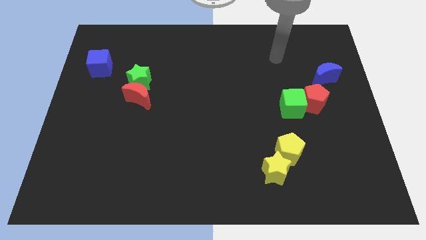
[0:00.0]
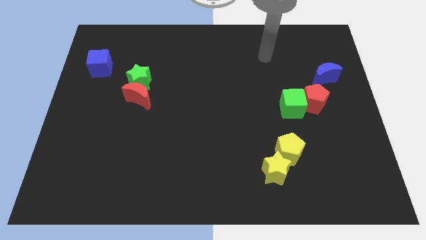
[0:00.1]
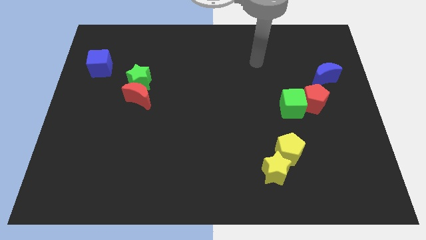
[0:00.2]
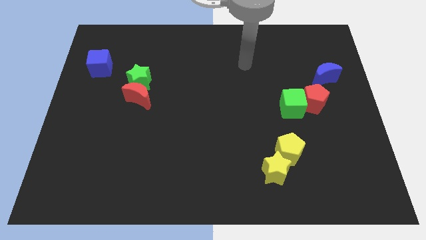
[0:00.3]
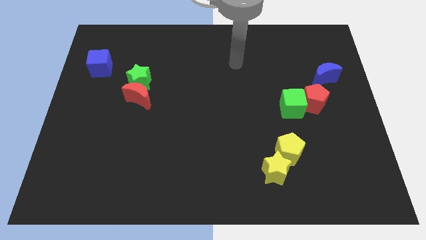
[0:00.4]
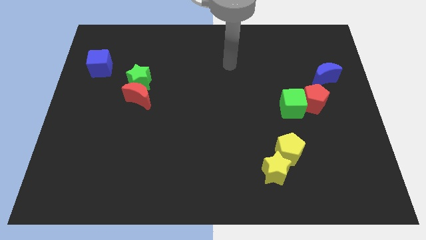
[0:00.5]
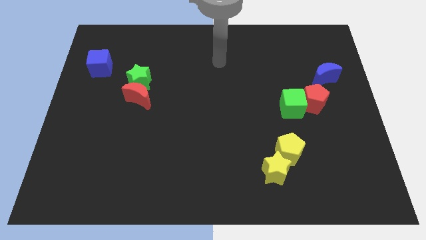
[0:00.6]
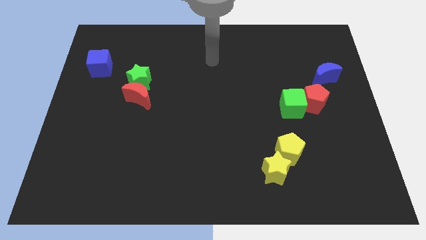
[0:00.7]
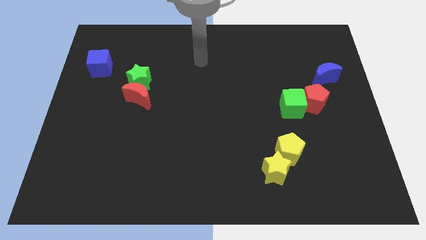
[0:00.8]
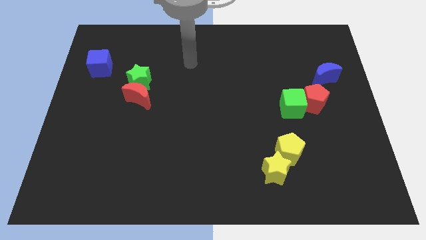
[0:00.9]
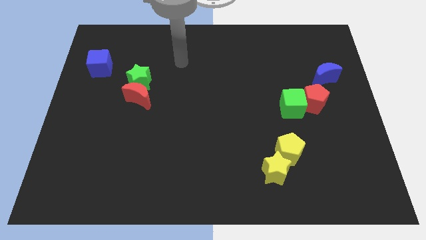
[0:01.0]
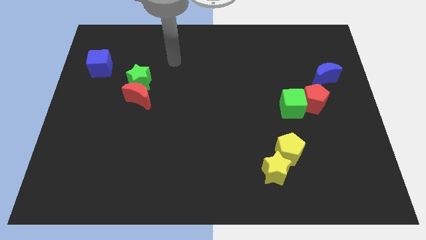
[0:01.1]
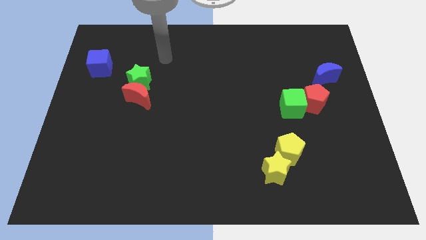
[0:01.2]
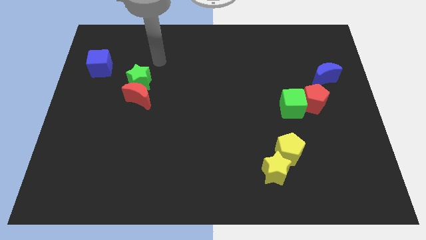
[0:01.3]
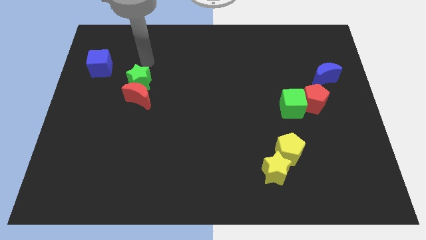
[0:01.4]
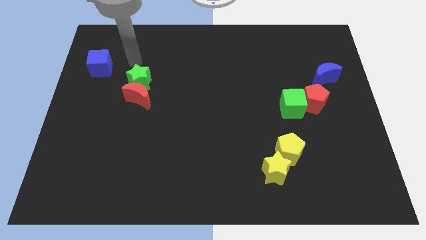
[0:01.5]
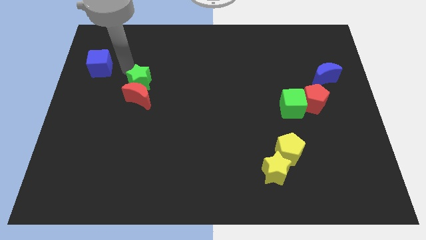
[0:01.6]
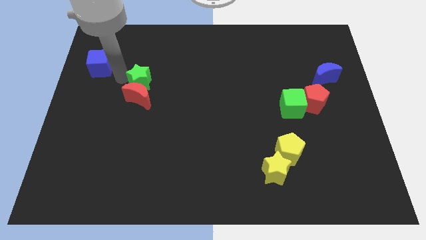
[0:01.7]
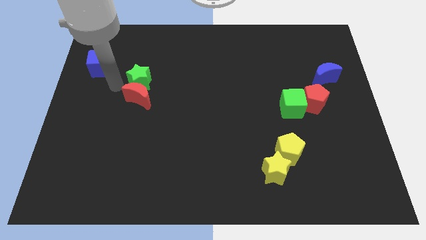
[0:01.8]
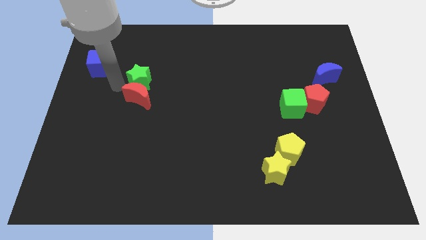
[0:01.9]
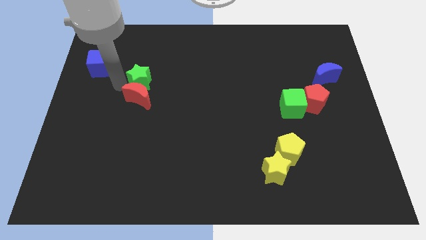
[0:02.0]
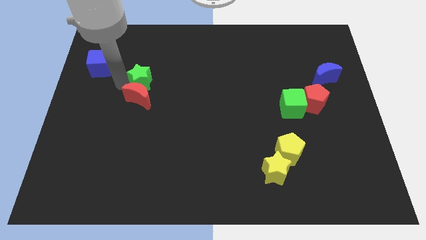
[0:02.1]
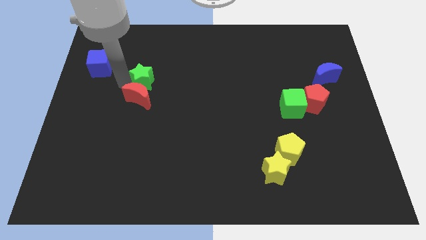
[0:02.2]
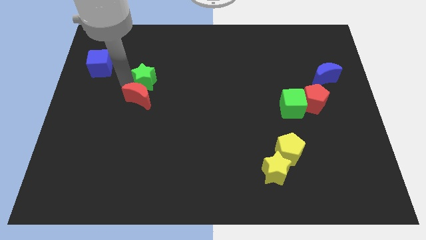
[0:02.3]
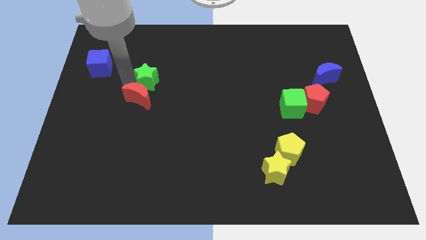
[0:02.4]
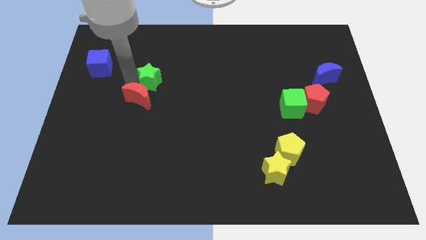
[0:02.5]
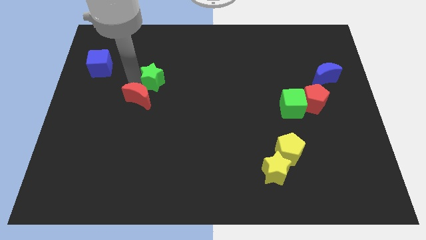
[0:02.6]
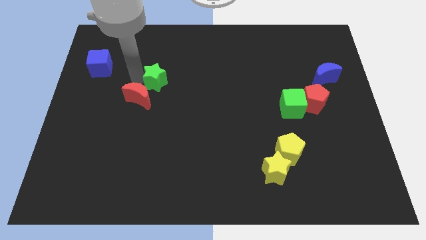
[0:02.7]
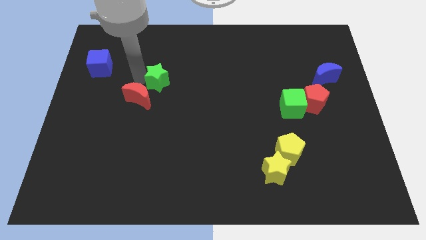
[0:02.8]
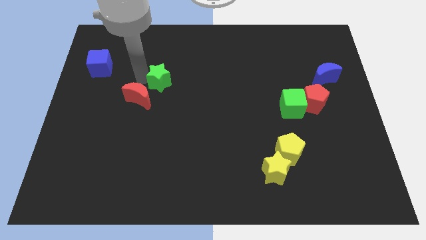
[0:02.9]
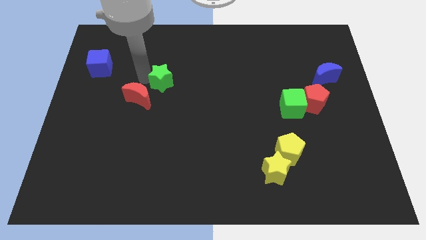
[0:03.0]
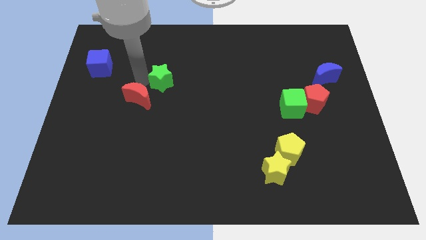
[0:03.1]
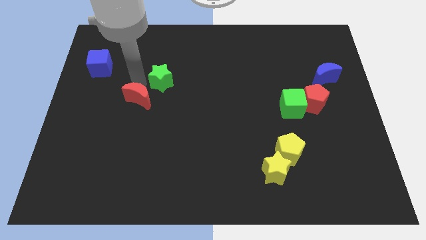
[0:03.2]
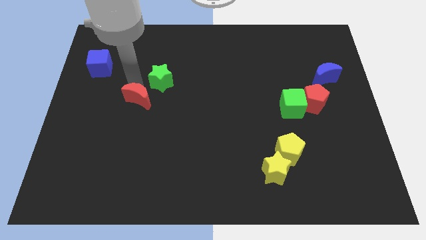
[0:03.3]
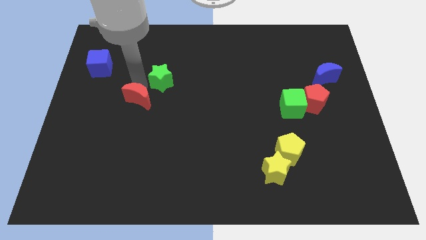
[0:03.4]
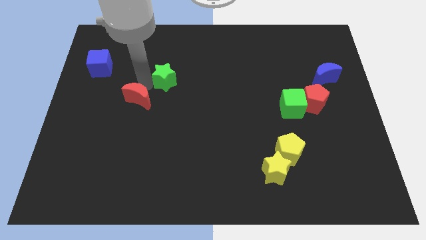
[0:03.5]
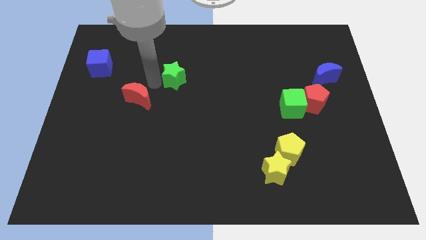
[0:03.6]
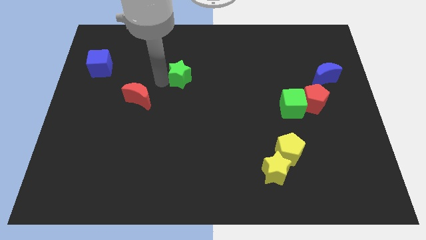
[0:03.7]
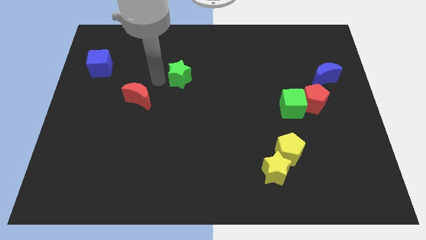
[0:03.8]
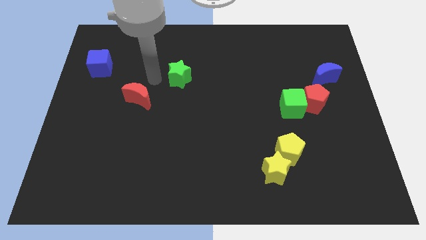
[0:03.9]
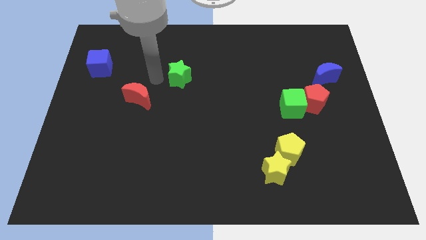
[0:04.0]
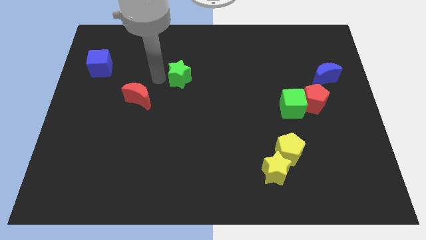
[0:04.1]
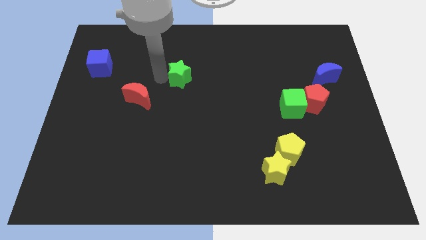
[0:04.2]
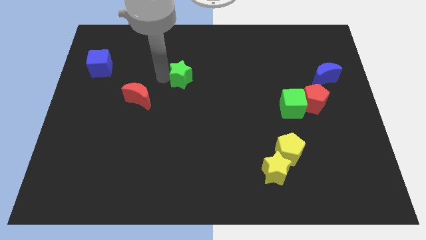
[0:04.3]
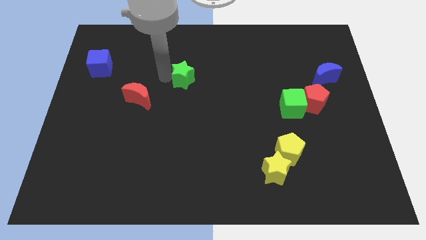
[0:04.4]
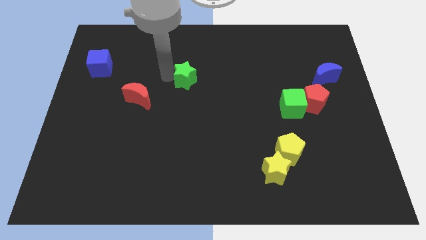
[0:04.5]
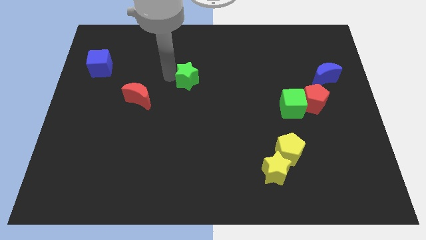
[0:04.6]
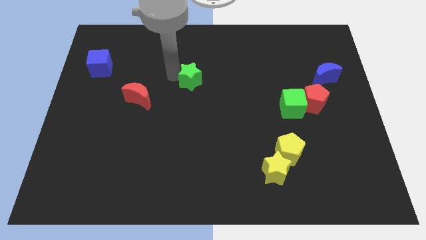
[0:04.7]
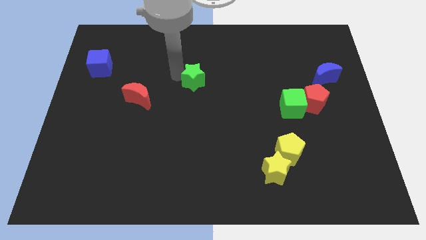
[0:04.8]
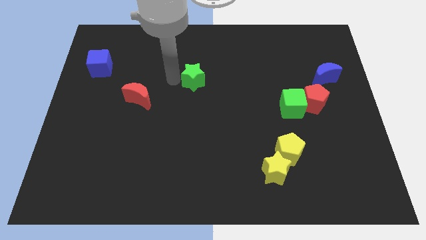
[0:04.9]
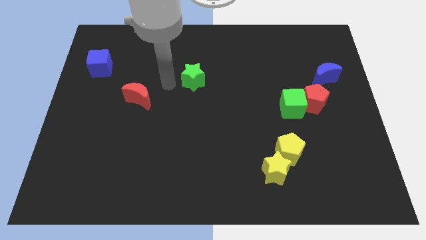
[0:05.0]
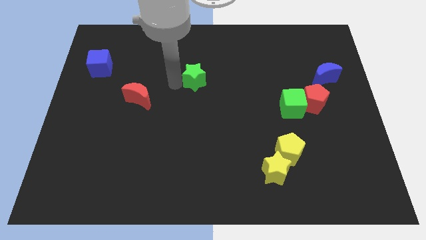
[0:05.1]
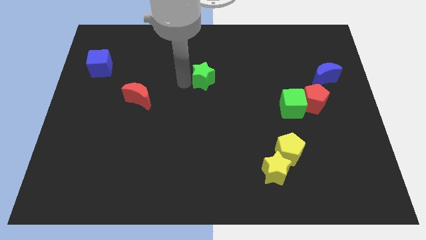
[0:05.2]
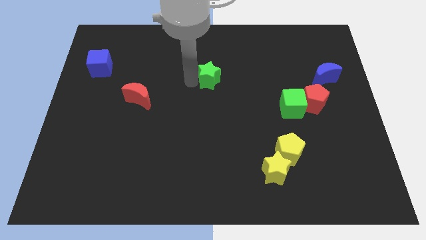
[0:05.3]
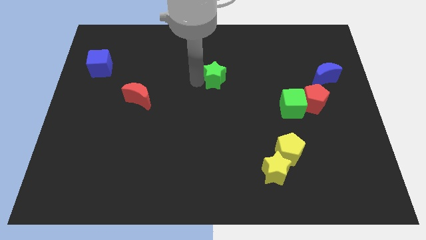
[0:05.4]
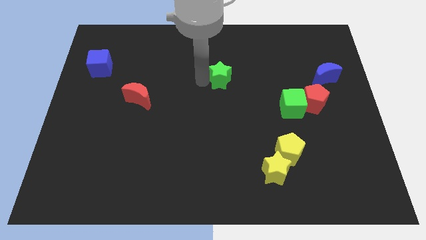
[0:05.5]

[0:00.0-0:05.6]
slide the green star to the right

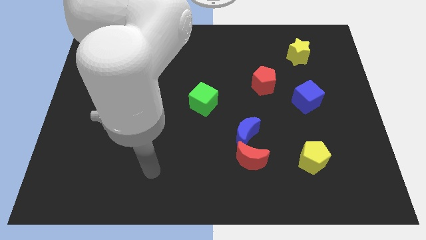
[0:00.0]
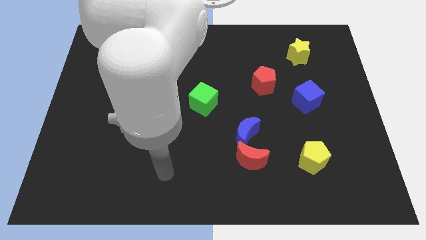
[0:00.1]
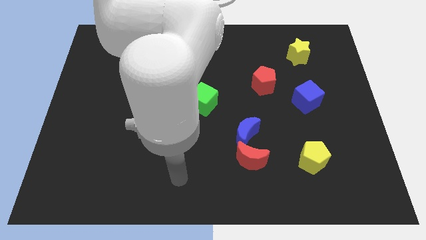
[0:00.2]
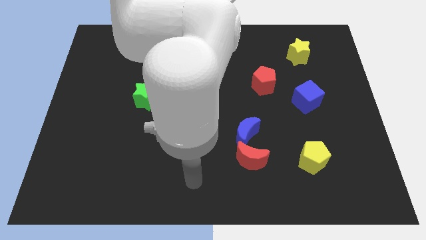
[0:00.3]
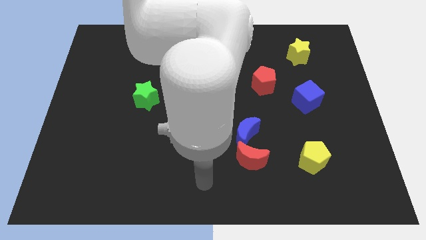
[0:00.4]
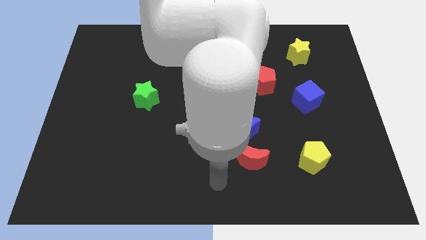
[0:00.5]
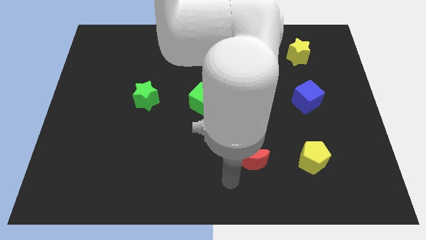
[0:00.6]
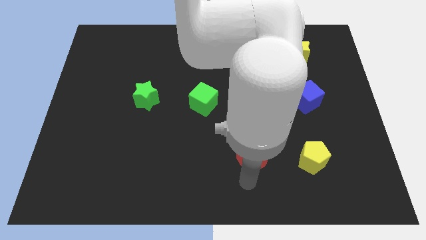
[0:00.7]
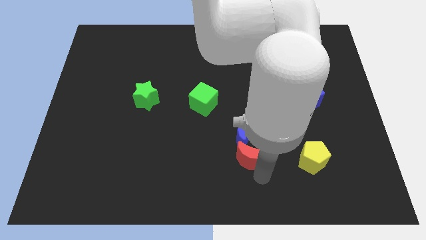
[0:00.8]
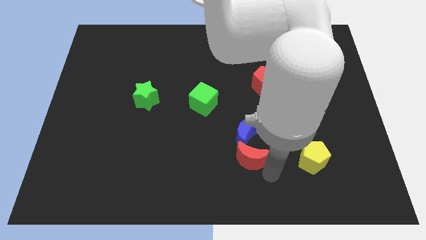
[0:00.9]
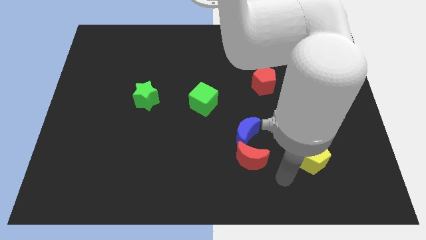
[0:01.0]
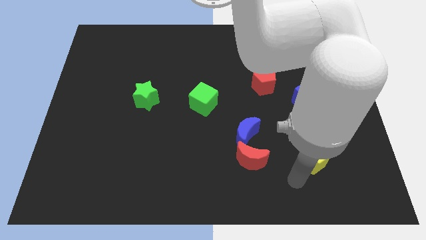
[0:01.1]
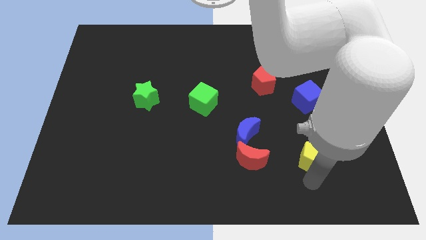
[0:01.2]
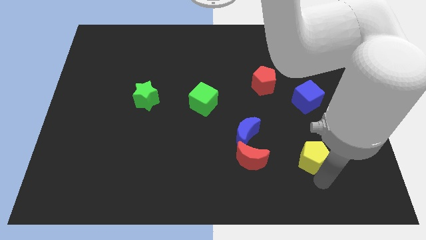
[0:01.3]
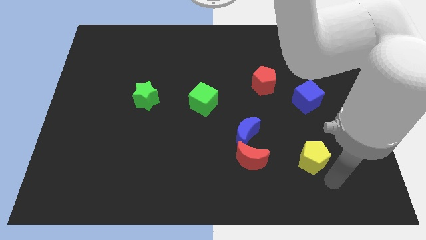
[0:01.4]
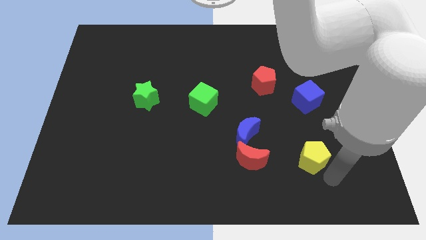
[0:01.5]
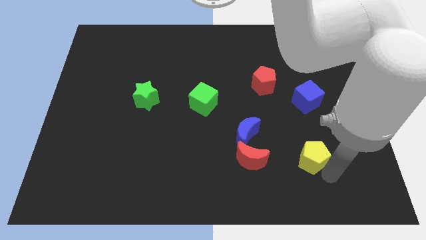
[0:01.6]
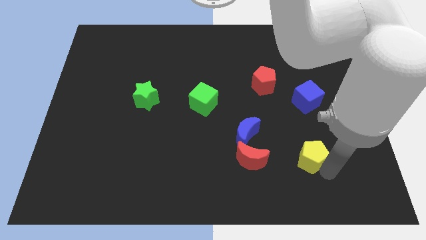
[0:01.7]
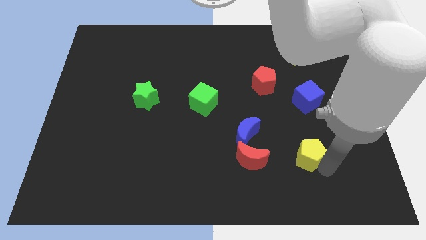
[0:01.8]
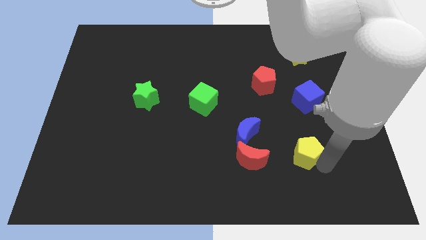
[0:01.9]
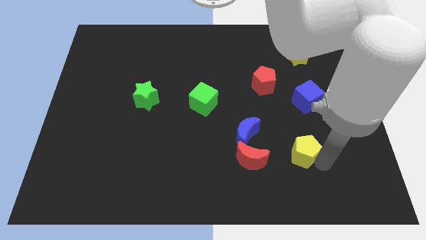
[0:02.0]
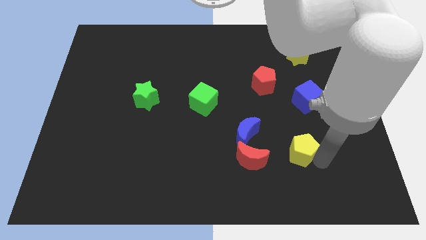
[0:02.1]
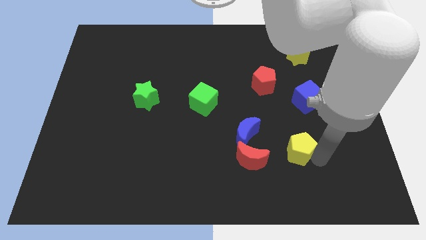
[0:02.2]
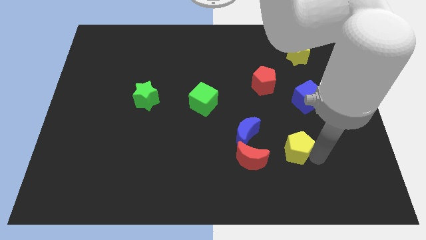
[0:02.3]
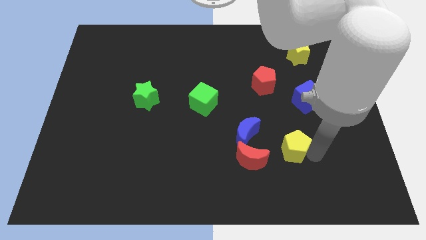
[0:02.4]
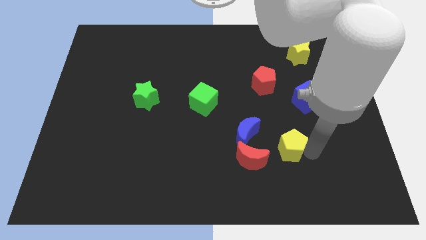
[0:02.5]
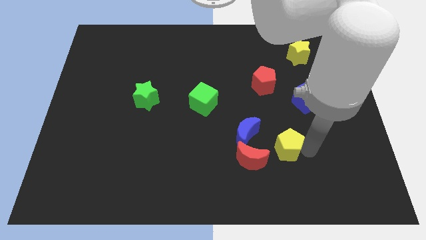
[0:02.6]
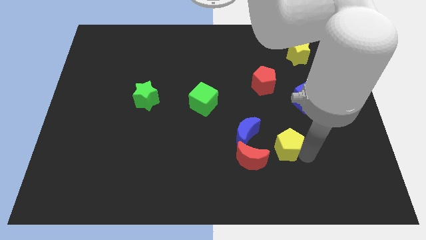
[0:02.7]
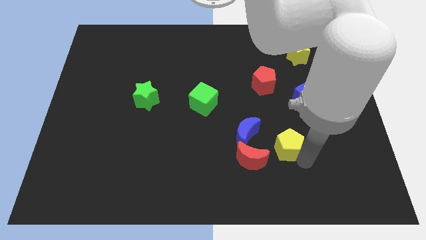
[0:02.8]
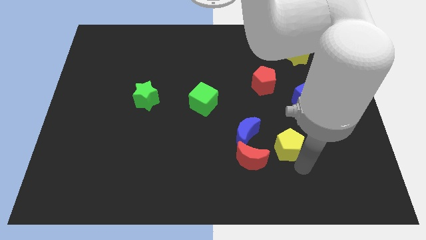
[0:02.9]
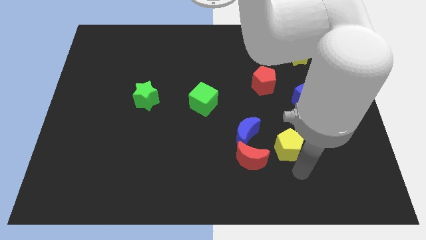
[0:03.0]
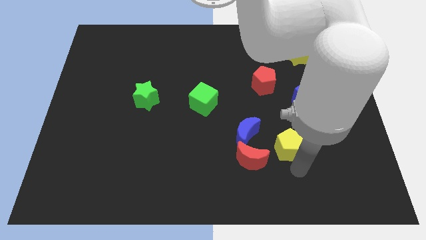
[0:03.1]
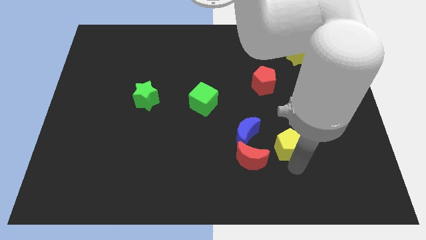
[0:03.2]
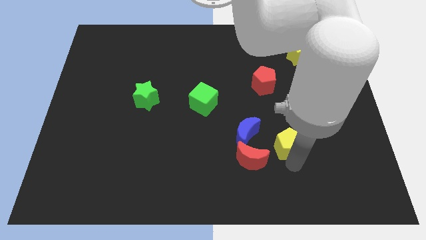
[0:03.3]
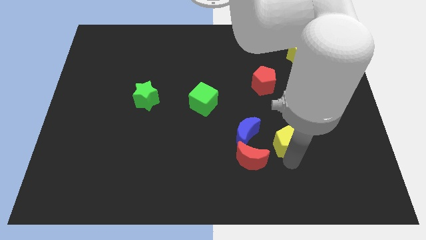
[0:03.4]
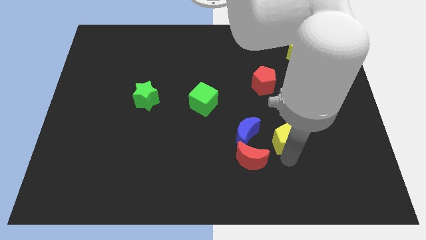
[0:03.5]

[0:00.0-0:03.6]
slightly move the yellow pentagon up and then left
